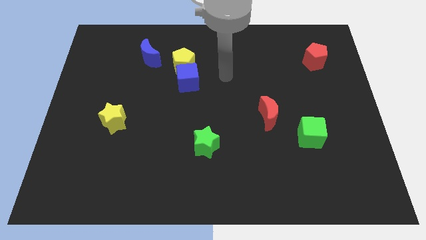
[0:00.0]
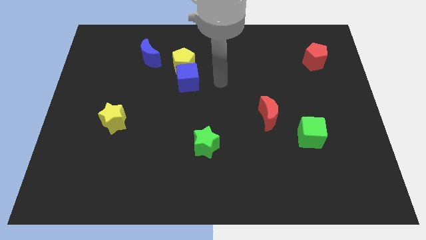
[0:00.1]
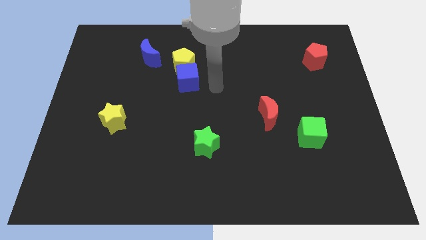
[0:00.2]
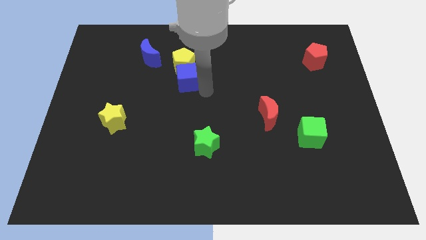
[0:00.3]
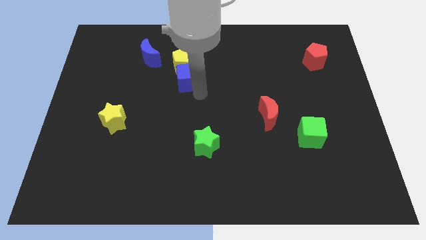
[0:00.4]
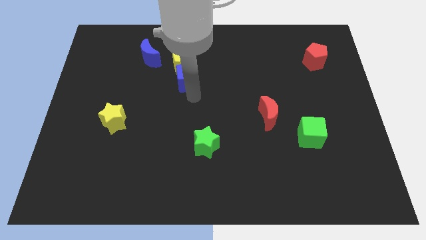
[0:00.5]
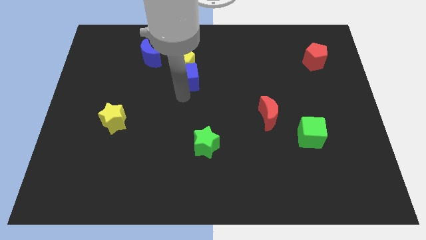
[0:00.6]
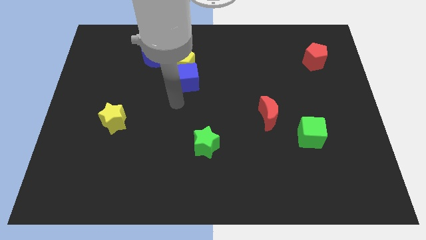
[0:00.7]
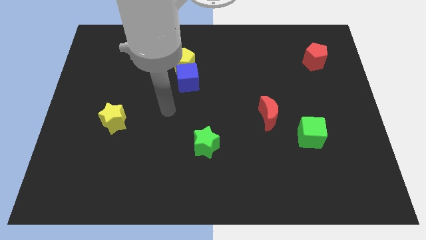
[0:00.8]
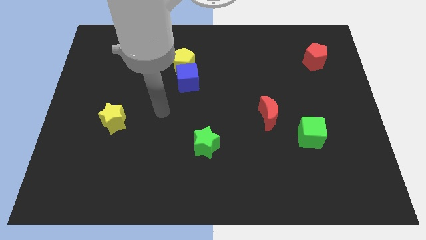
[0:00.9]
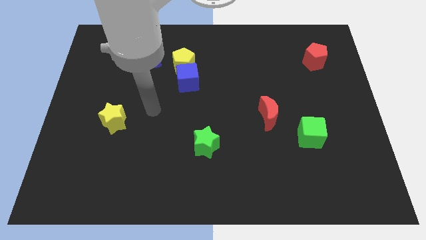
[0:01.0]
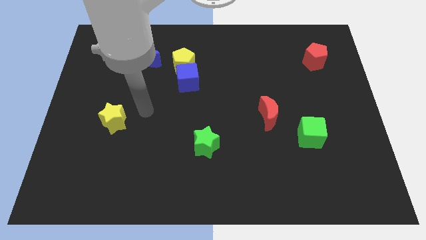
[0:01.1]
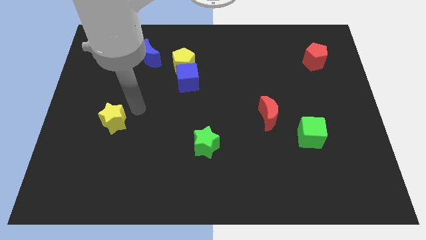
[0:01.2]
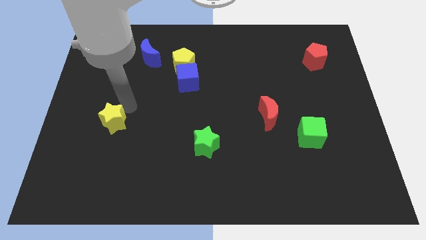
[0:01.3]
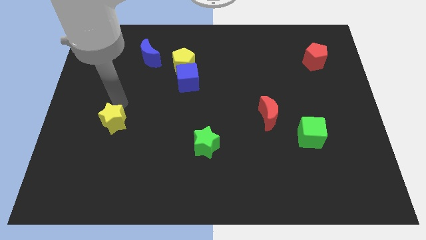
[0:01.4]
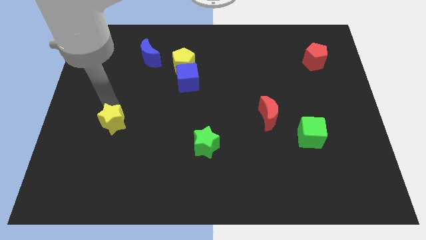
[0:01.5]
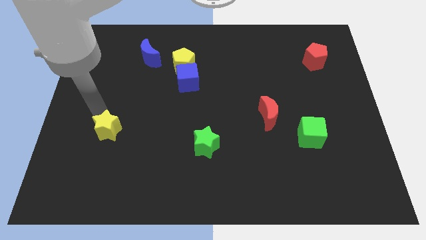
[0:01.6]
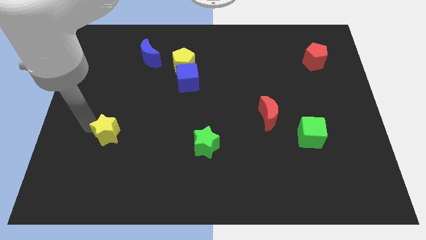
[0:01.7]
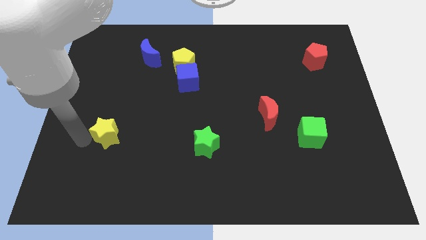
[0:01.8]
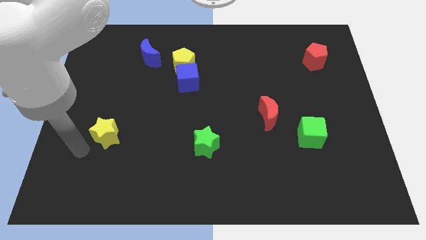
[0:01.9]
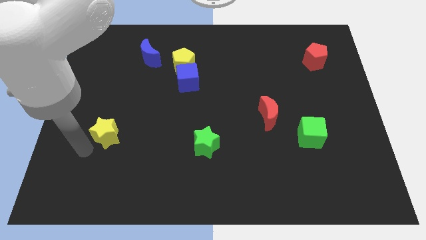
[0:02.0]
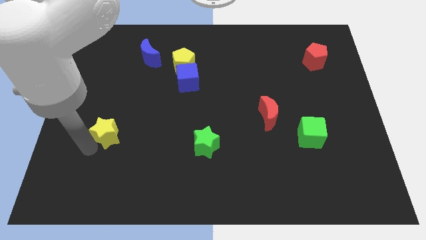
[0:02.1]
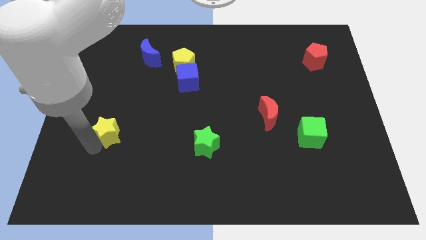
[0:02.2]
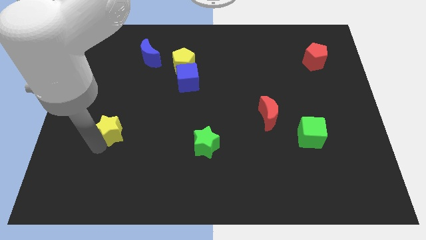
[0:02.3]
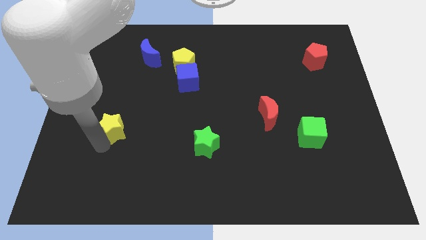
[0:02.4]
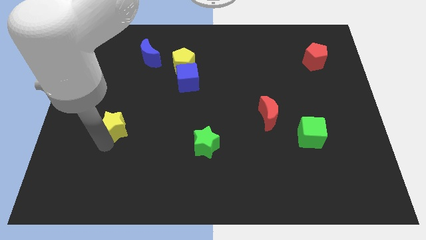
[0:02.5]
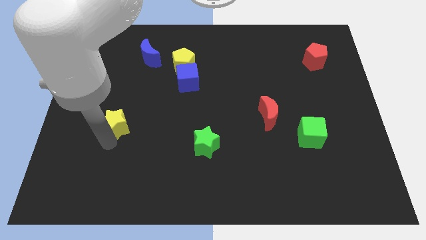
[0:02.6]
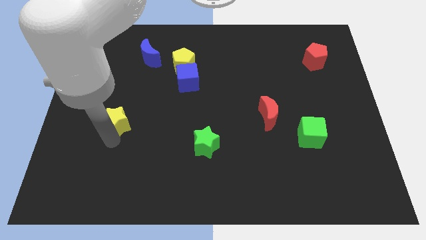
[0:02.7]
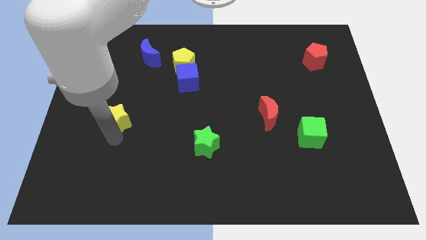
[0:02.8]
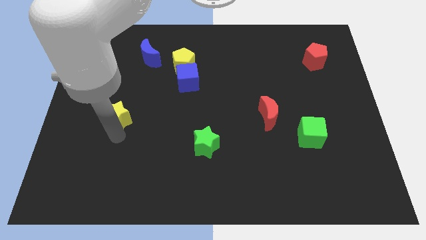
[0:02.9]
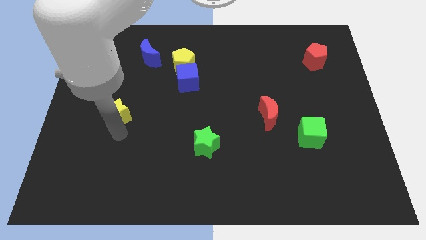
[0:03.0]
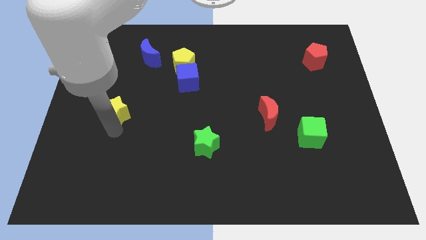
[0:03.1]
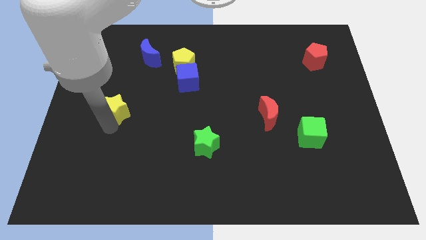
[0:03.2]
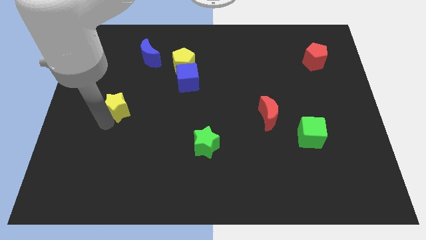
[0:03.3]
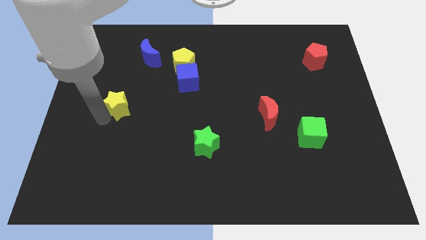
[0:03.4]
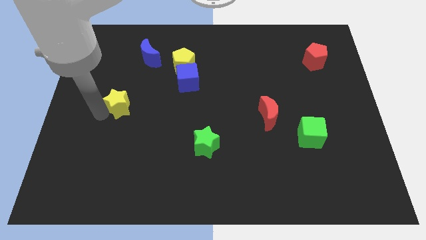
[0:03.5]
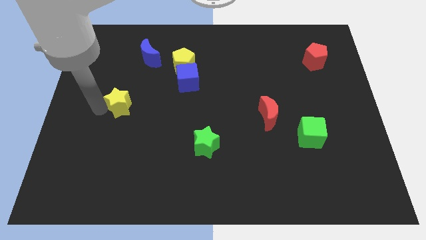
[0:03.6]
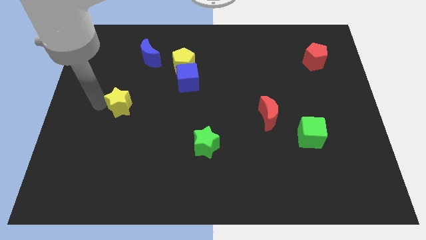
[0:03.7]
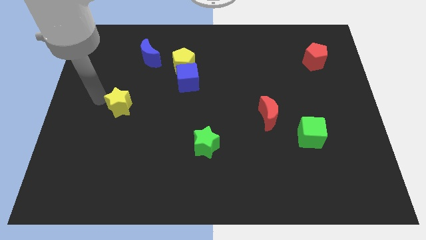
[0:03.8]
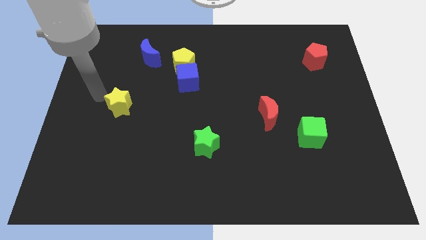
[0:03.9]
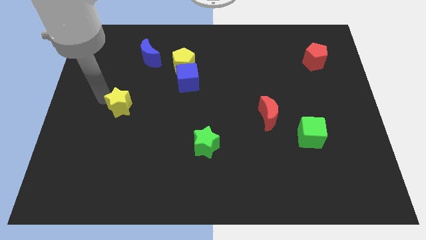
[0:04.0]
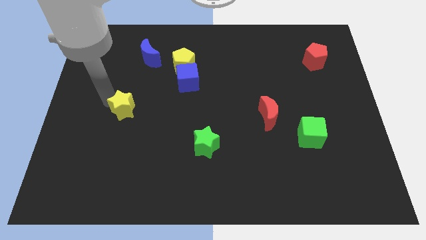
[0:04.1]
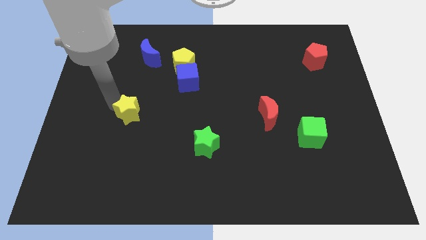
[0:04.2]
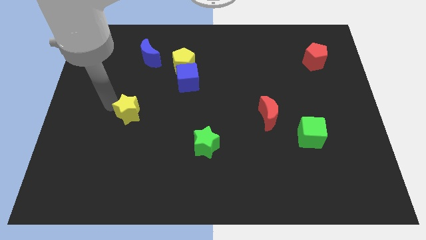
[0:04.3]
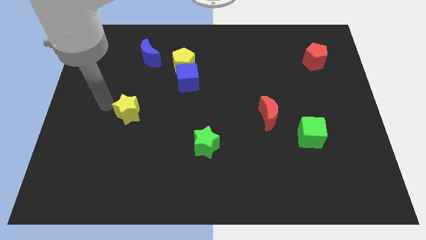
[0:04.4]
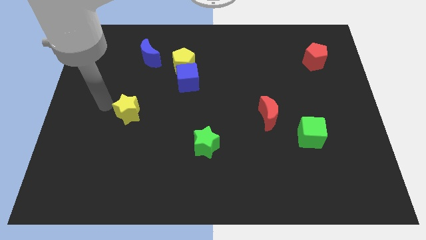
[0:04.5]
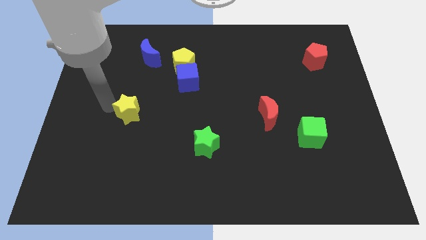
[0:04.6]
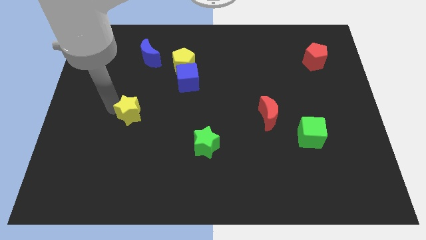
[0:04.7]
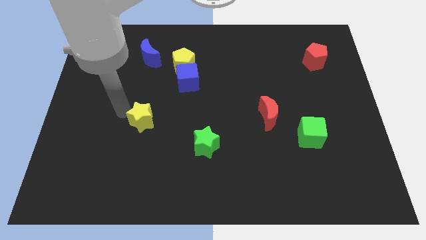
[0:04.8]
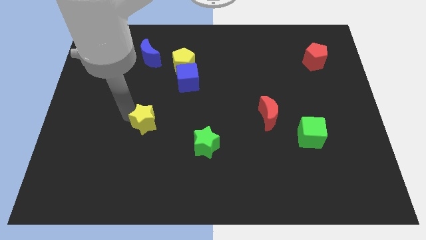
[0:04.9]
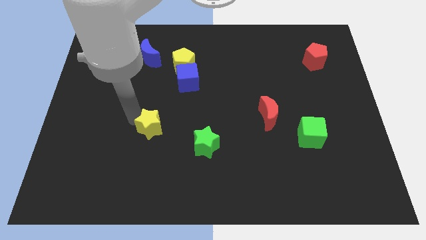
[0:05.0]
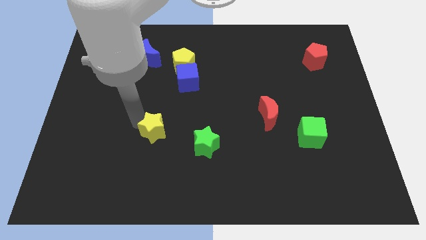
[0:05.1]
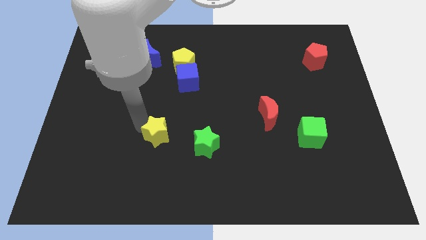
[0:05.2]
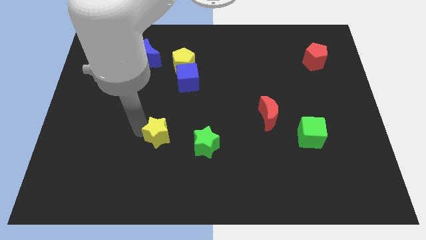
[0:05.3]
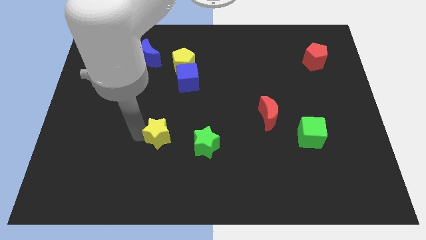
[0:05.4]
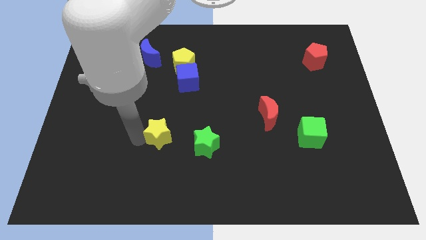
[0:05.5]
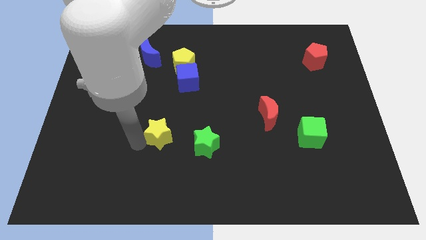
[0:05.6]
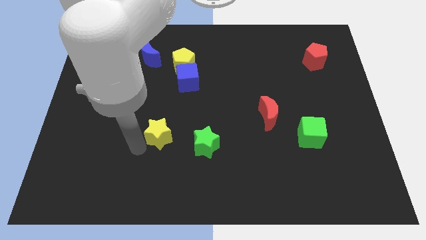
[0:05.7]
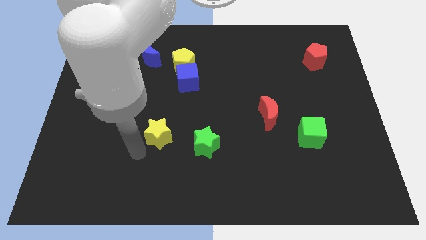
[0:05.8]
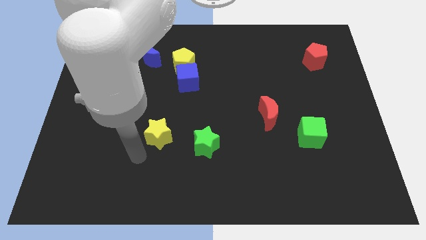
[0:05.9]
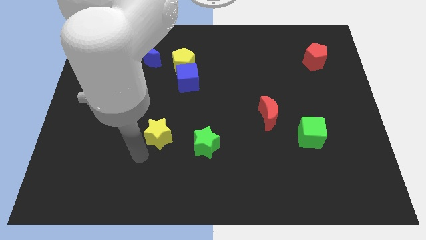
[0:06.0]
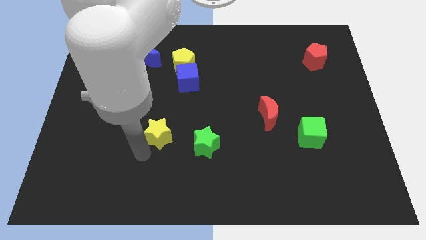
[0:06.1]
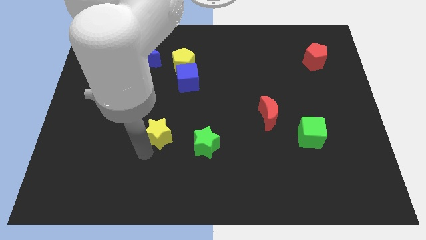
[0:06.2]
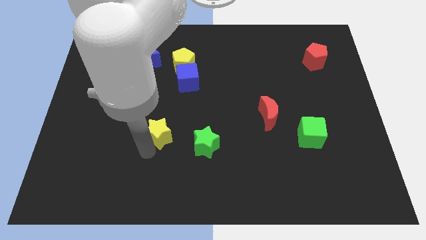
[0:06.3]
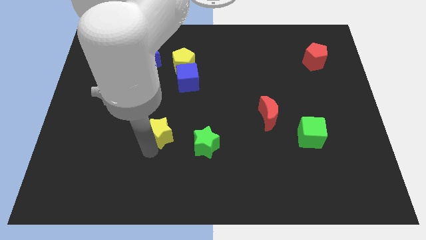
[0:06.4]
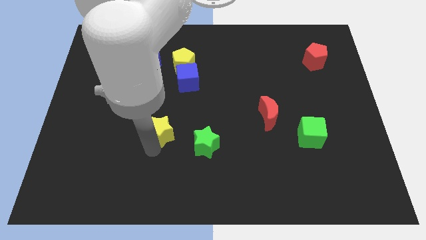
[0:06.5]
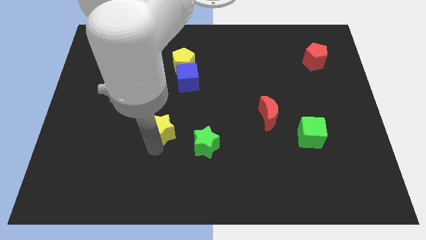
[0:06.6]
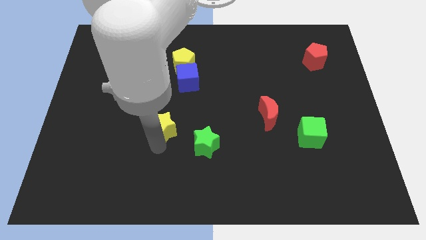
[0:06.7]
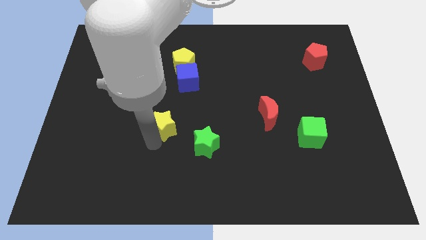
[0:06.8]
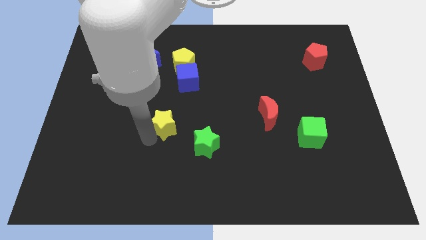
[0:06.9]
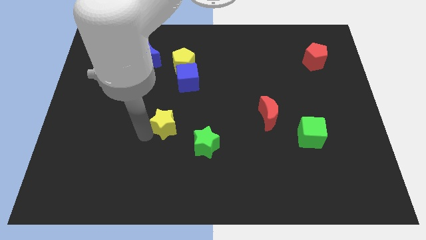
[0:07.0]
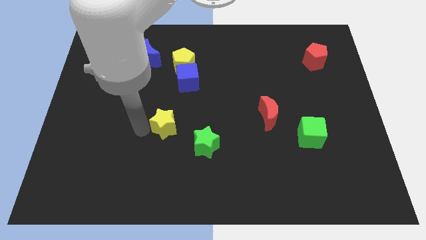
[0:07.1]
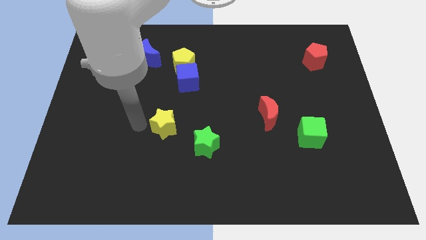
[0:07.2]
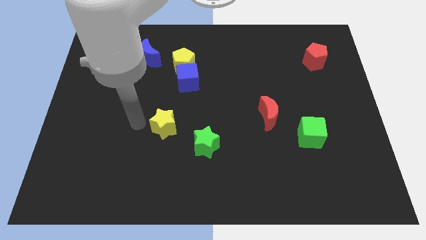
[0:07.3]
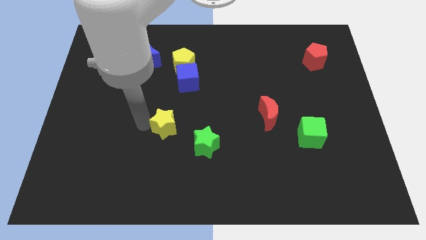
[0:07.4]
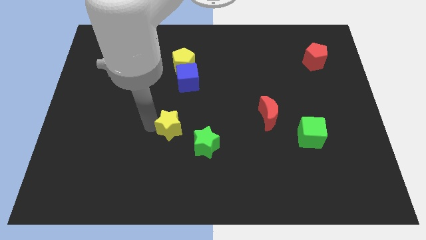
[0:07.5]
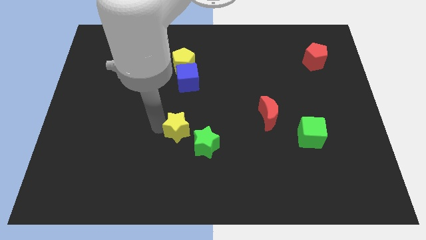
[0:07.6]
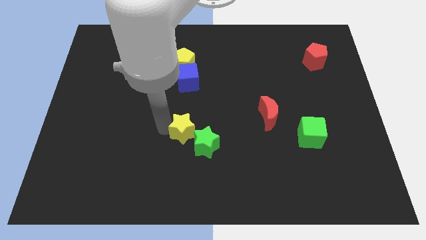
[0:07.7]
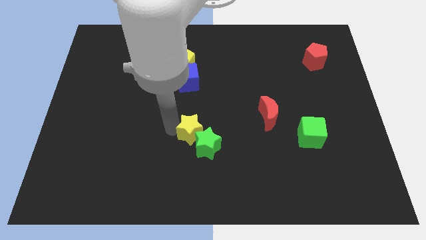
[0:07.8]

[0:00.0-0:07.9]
slide the yellow star close to the green star
